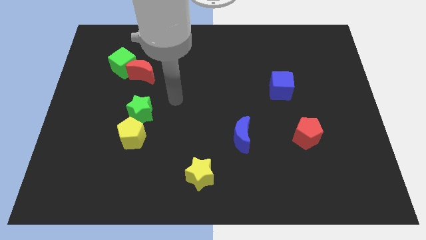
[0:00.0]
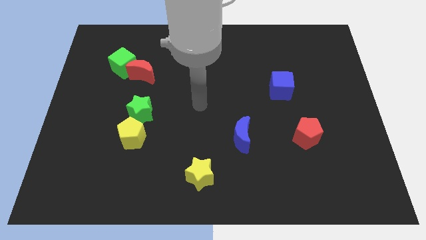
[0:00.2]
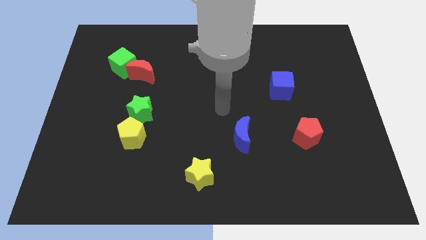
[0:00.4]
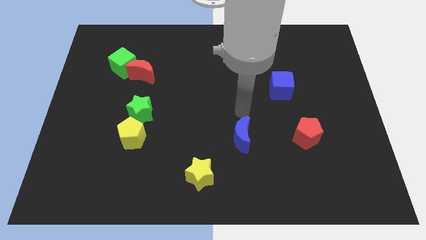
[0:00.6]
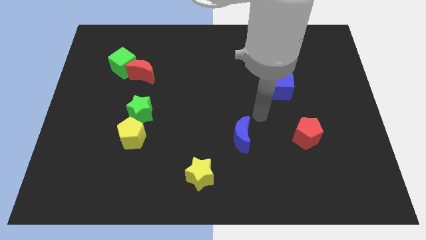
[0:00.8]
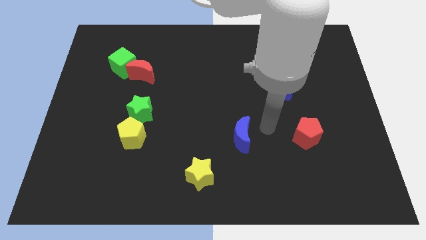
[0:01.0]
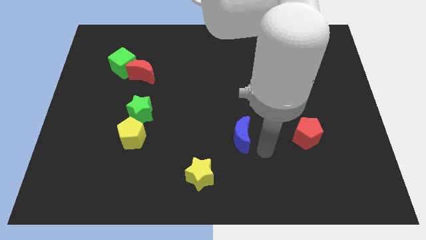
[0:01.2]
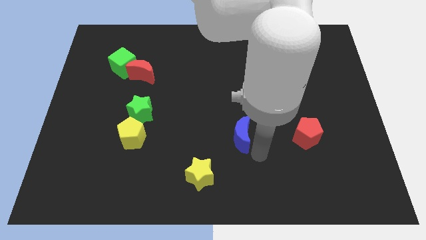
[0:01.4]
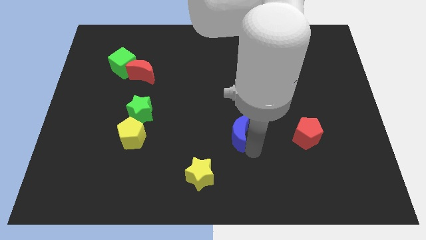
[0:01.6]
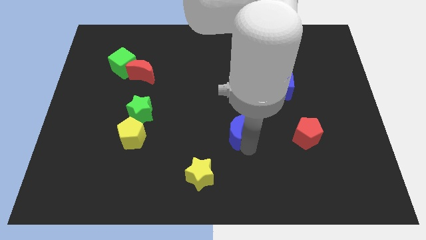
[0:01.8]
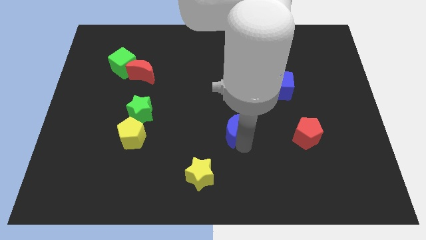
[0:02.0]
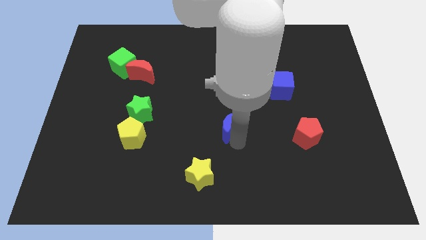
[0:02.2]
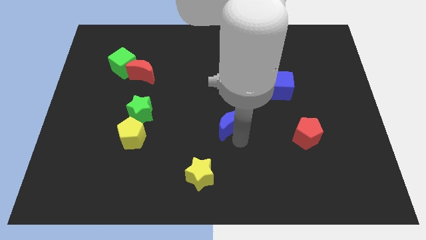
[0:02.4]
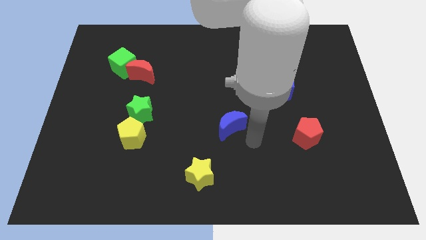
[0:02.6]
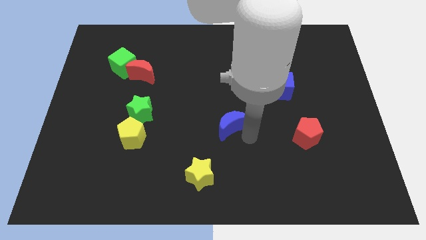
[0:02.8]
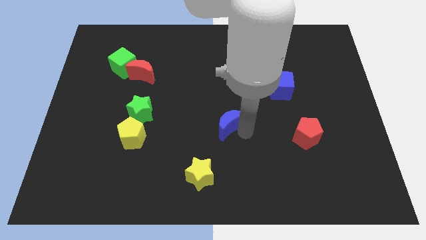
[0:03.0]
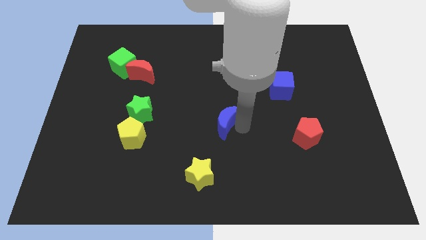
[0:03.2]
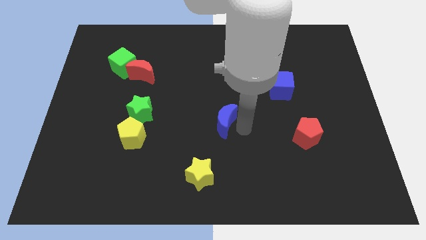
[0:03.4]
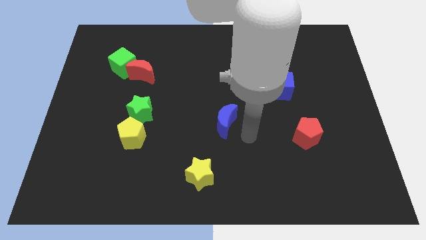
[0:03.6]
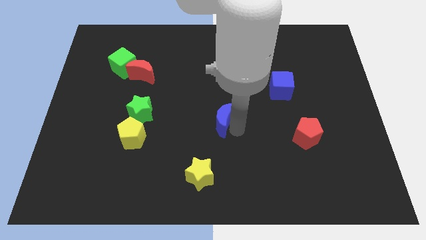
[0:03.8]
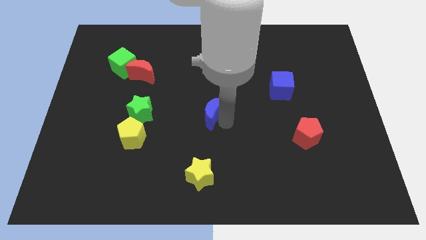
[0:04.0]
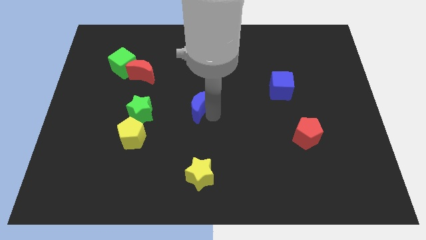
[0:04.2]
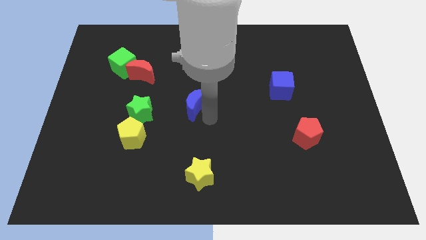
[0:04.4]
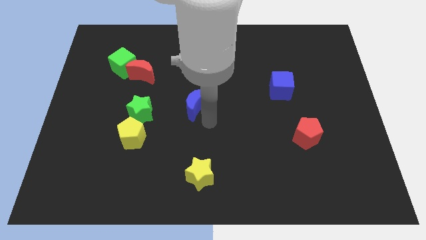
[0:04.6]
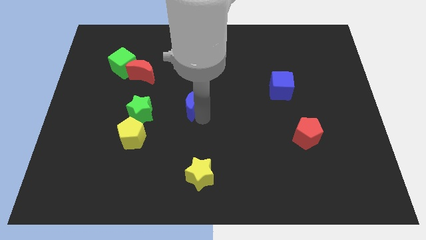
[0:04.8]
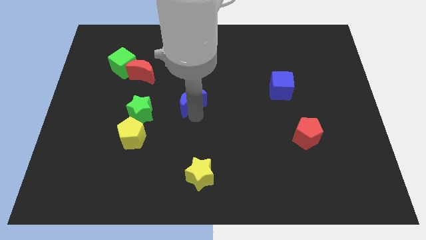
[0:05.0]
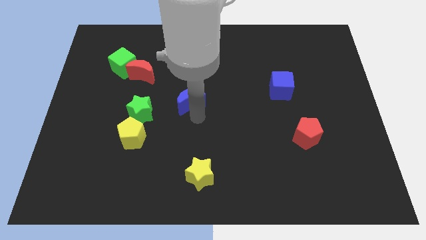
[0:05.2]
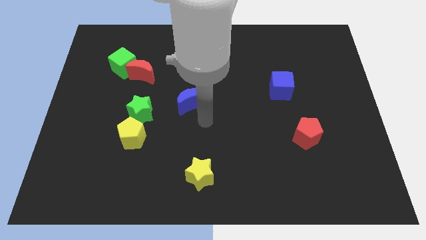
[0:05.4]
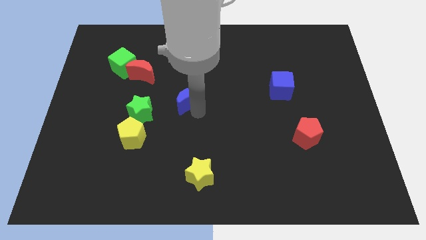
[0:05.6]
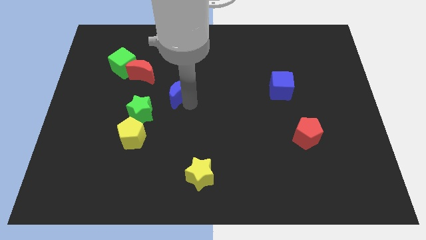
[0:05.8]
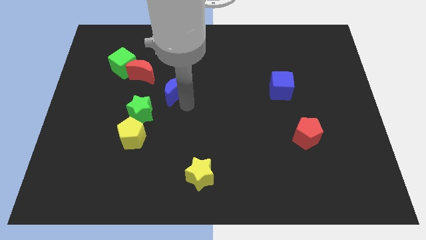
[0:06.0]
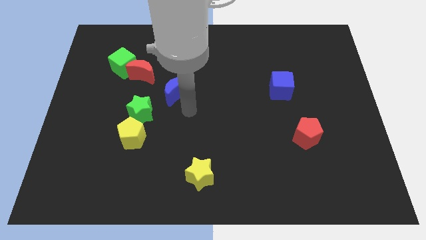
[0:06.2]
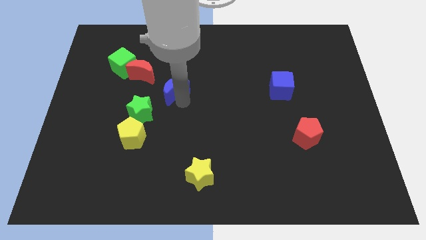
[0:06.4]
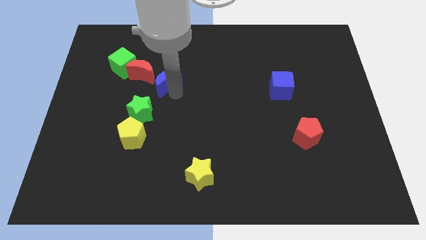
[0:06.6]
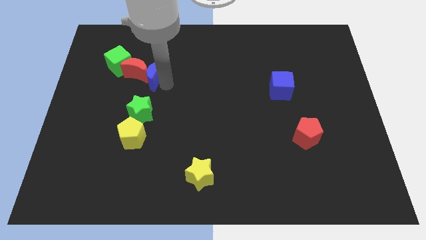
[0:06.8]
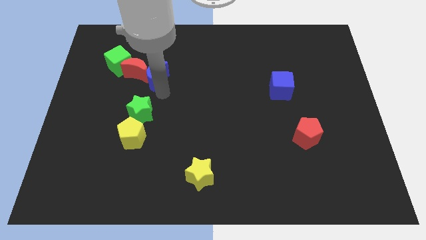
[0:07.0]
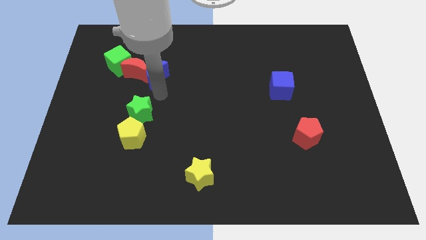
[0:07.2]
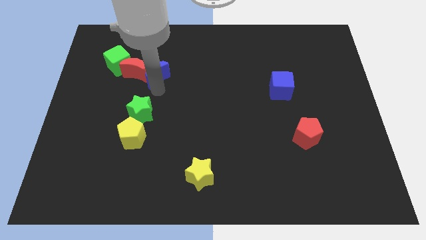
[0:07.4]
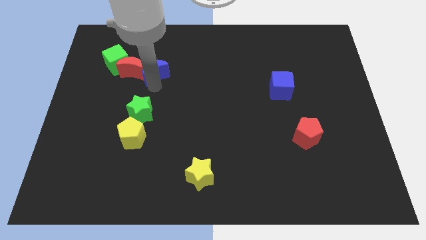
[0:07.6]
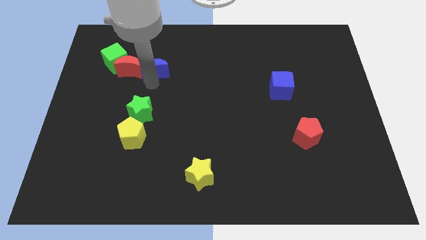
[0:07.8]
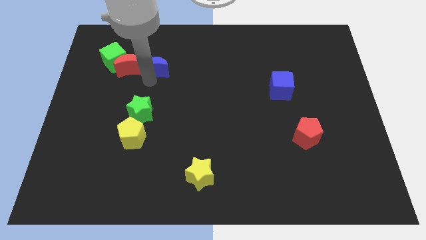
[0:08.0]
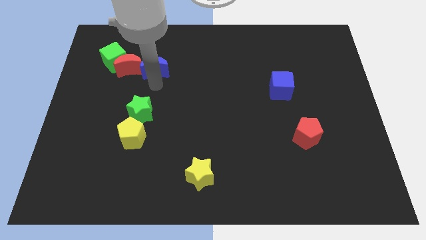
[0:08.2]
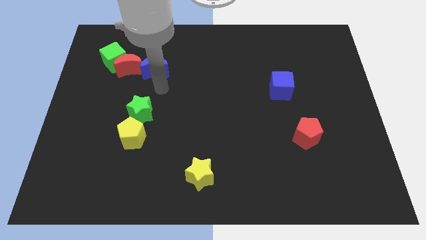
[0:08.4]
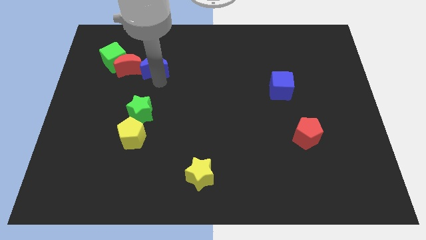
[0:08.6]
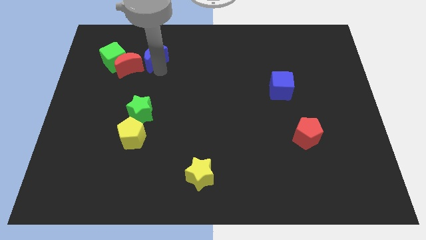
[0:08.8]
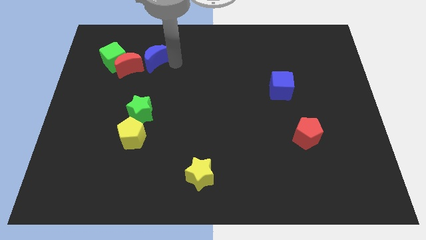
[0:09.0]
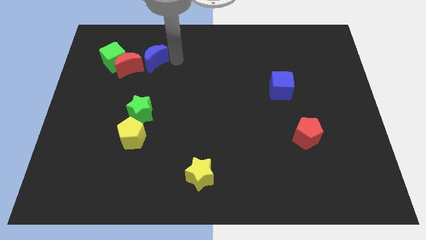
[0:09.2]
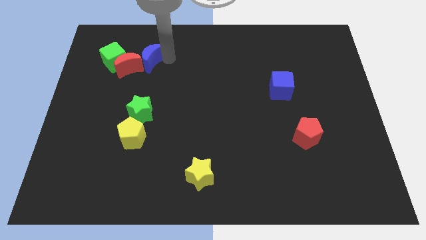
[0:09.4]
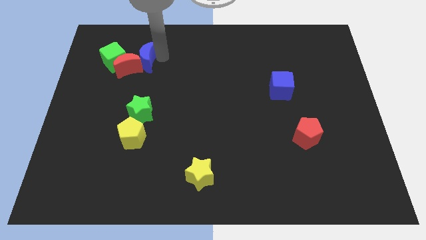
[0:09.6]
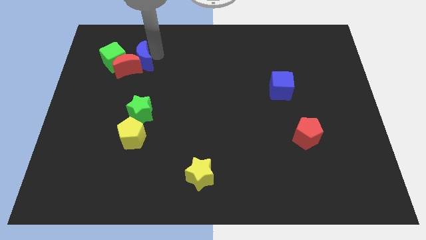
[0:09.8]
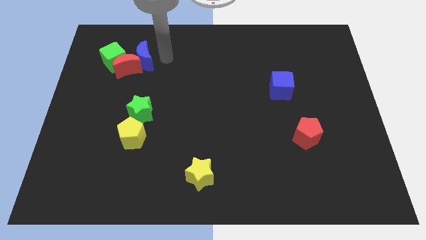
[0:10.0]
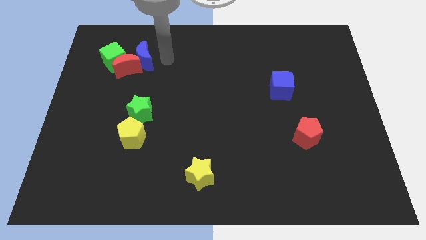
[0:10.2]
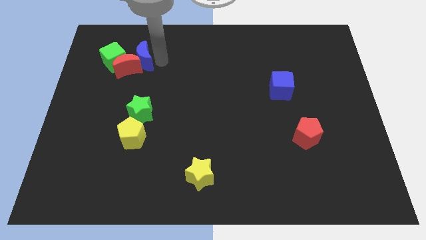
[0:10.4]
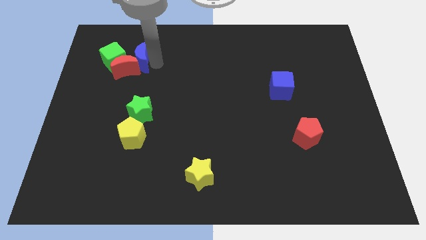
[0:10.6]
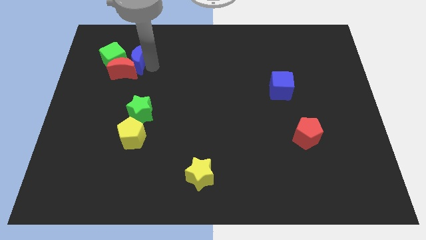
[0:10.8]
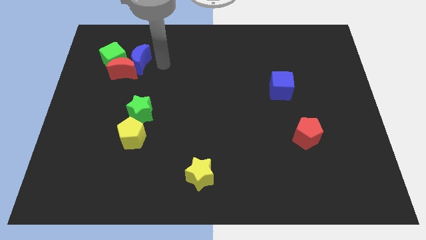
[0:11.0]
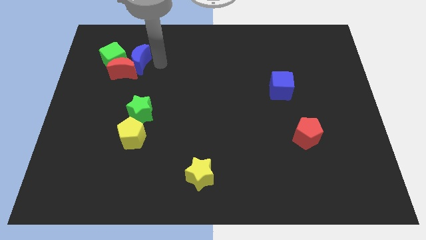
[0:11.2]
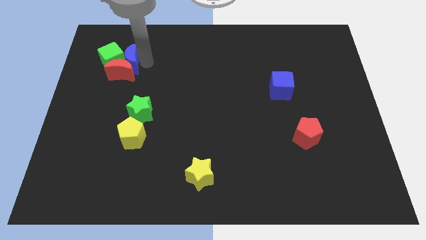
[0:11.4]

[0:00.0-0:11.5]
put the blue moon to the green cube

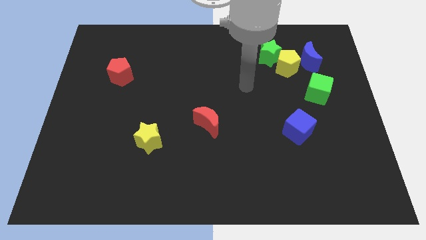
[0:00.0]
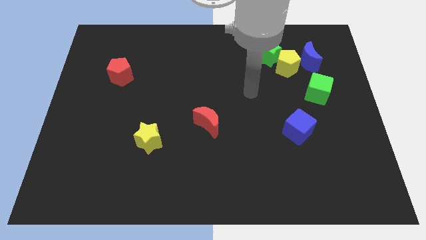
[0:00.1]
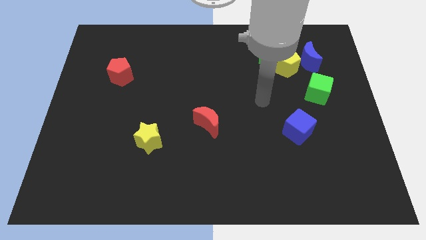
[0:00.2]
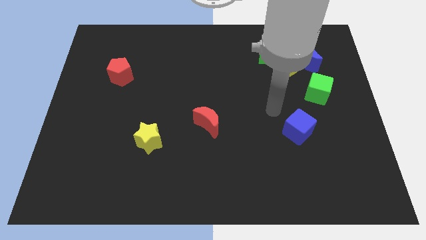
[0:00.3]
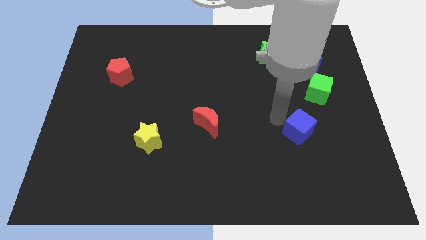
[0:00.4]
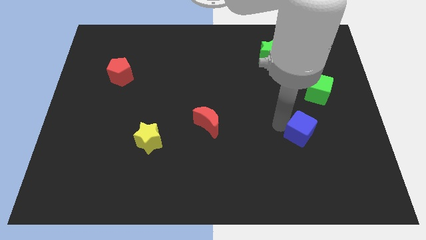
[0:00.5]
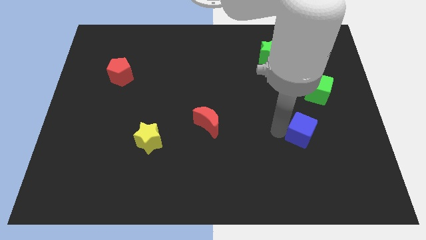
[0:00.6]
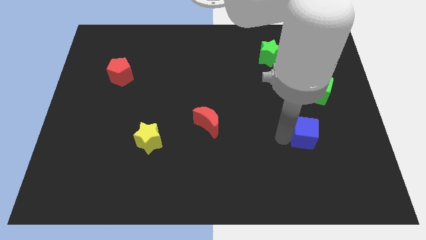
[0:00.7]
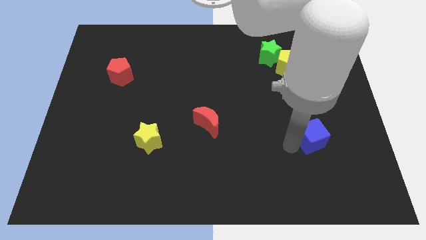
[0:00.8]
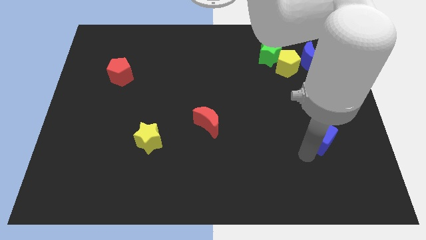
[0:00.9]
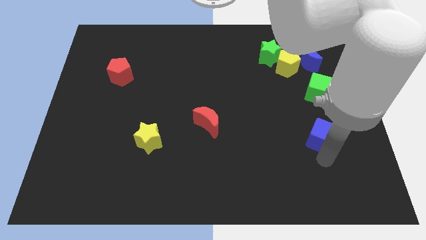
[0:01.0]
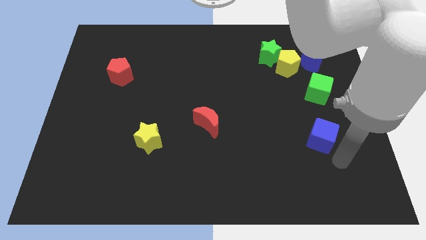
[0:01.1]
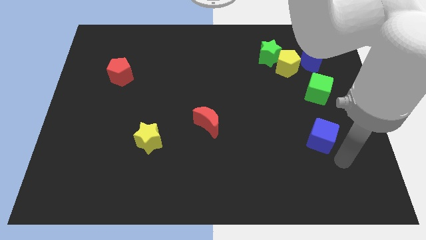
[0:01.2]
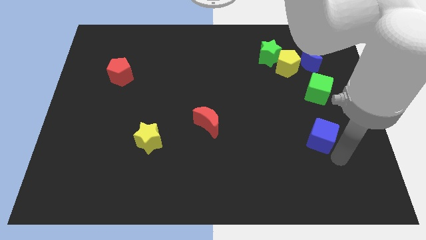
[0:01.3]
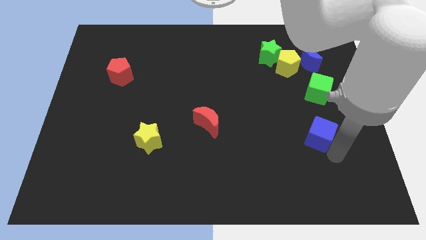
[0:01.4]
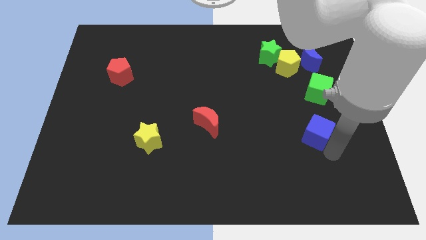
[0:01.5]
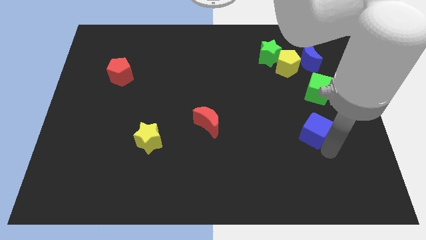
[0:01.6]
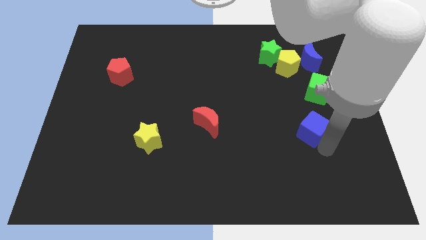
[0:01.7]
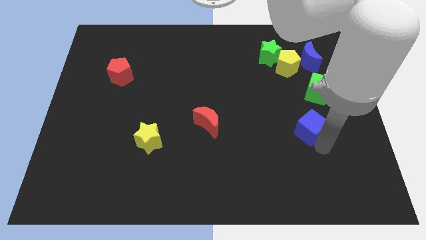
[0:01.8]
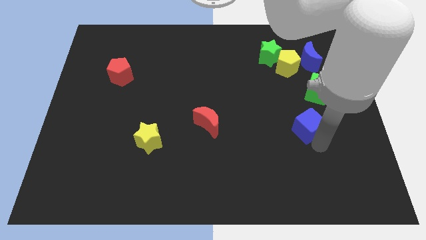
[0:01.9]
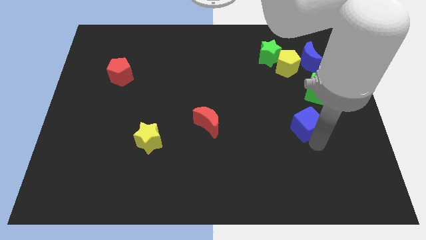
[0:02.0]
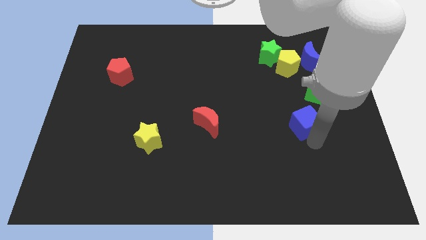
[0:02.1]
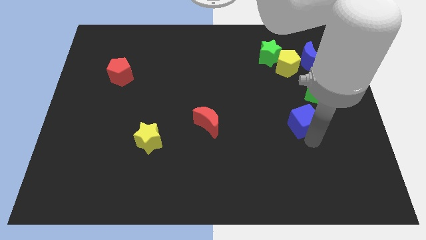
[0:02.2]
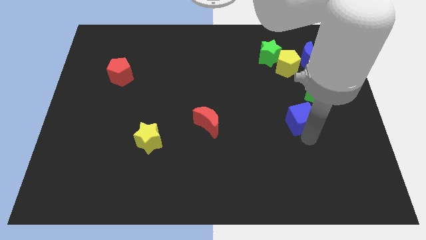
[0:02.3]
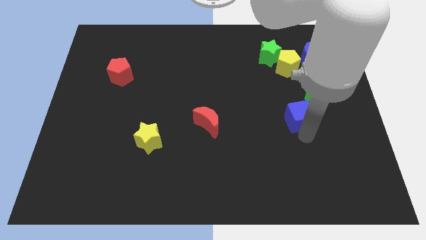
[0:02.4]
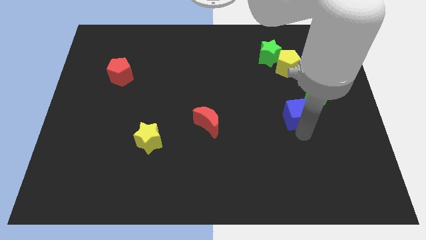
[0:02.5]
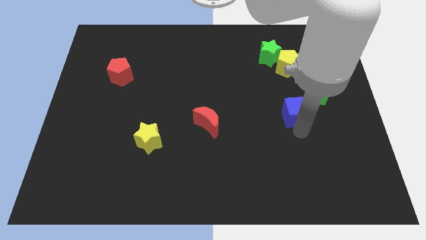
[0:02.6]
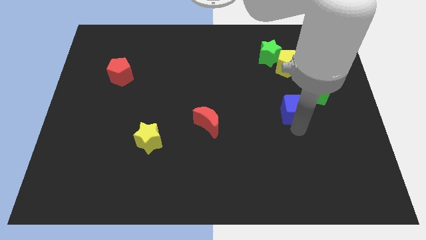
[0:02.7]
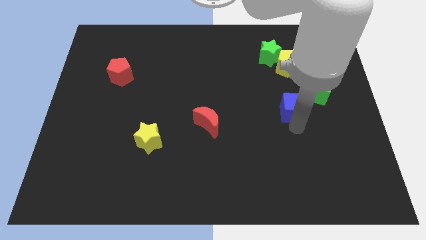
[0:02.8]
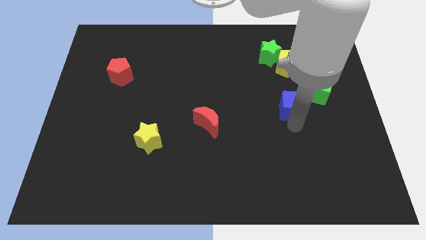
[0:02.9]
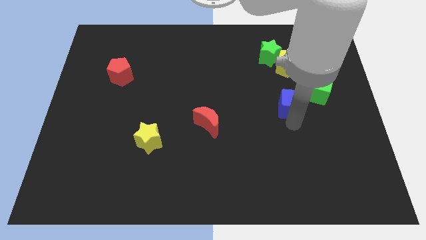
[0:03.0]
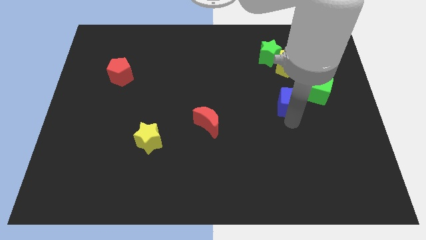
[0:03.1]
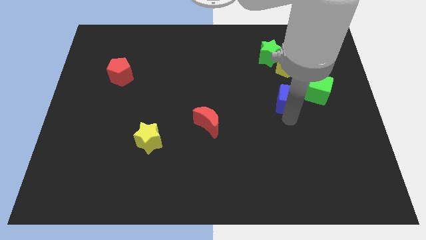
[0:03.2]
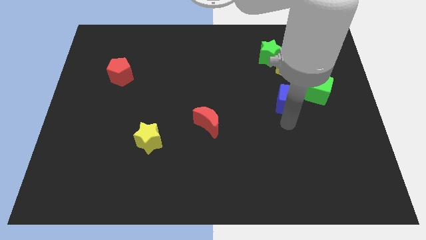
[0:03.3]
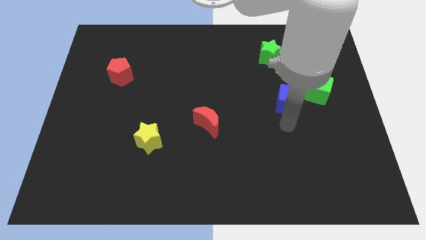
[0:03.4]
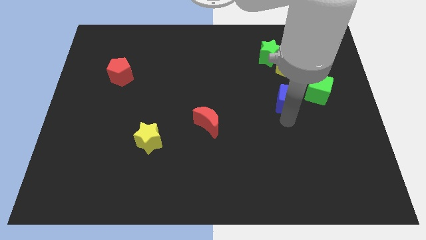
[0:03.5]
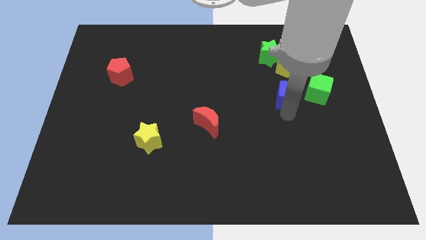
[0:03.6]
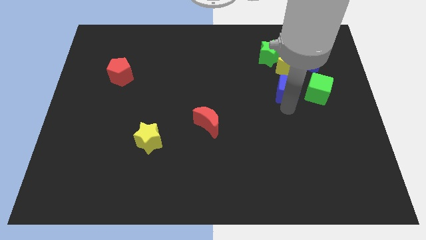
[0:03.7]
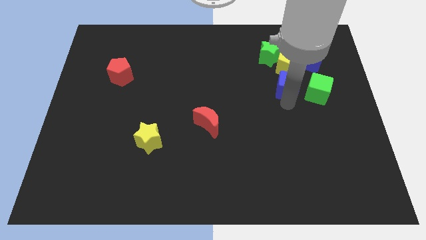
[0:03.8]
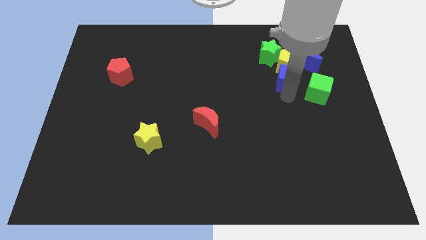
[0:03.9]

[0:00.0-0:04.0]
move the blue cube next to the yellow pentagon
